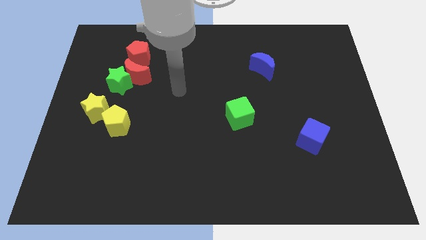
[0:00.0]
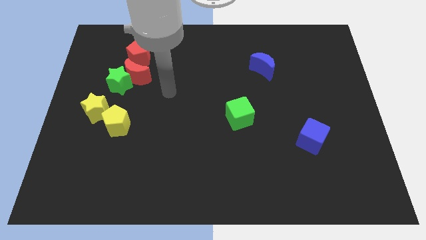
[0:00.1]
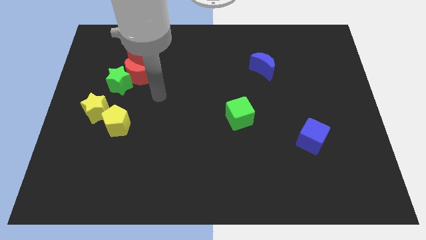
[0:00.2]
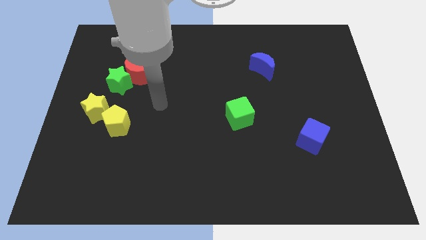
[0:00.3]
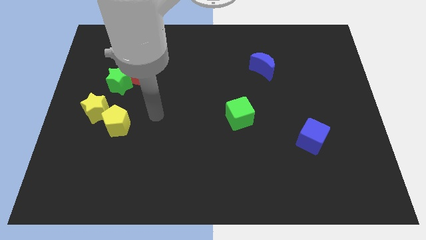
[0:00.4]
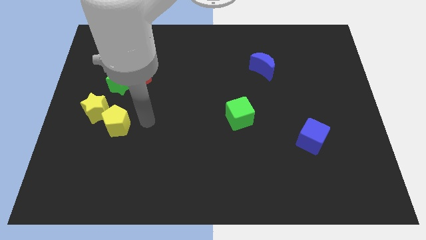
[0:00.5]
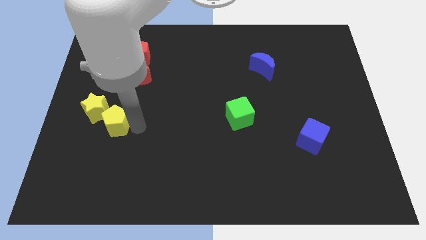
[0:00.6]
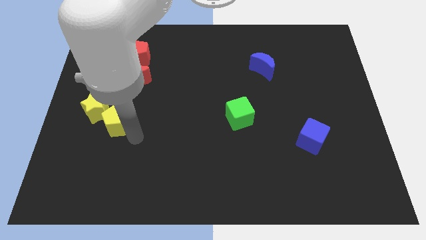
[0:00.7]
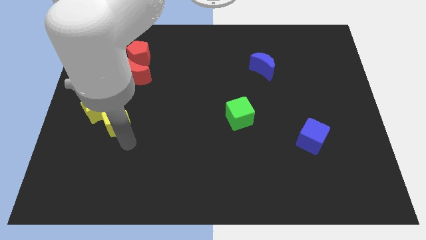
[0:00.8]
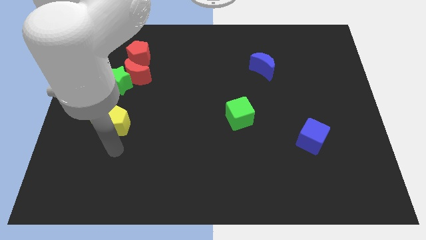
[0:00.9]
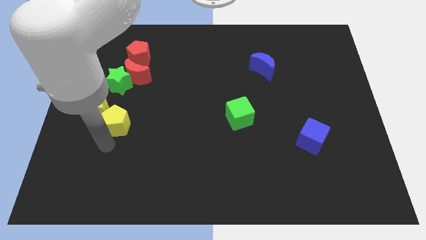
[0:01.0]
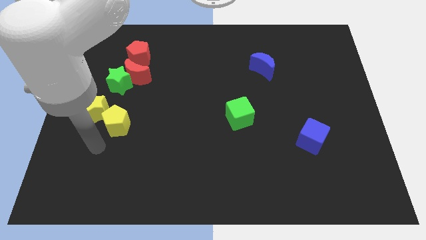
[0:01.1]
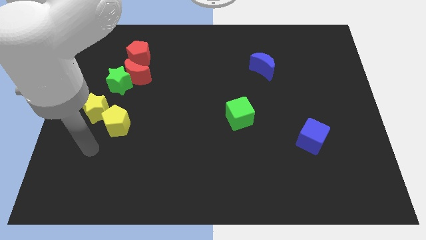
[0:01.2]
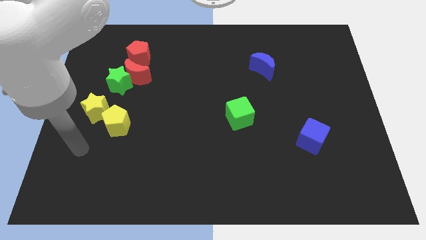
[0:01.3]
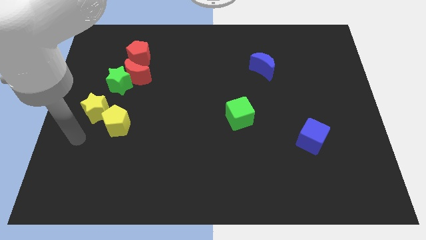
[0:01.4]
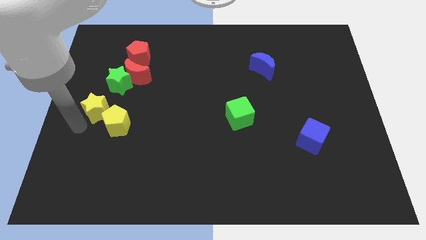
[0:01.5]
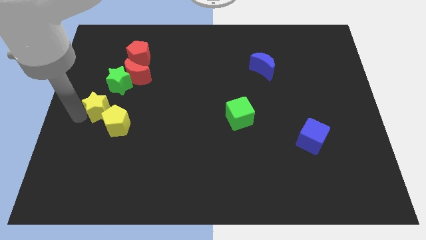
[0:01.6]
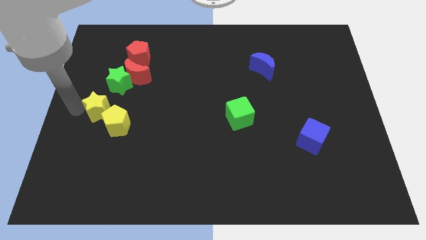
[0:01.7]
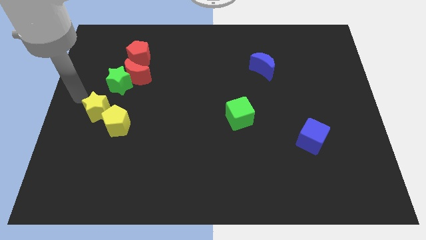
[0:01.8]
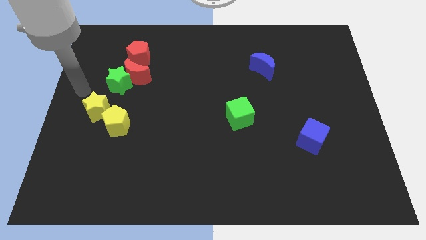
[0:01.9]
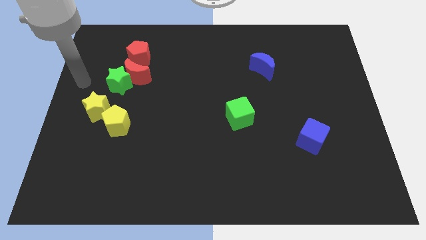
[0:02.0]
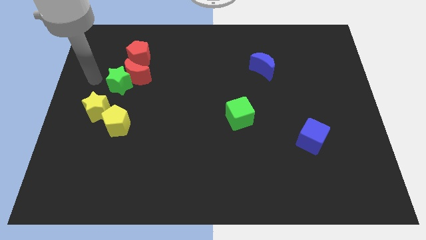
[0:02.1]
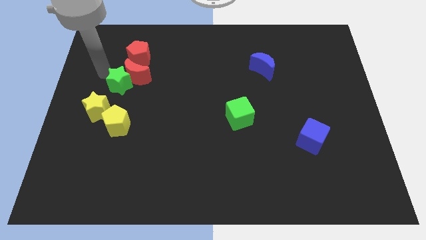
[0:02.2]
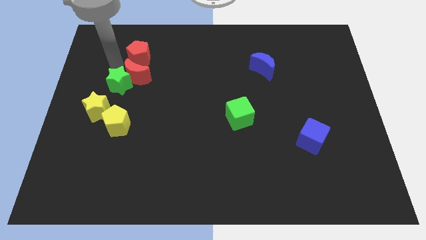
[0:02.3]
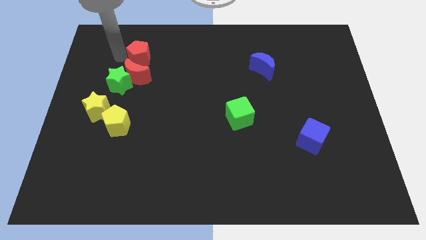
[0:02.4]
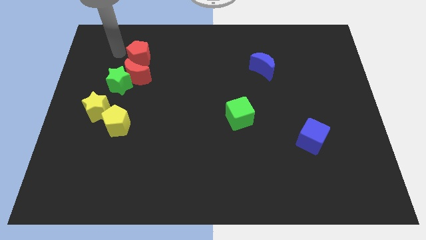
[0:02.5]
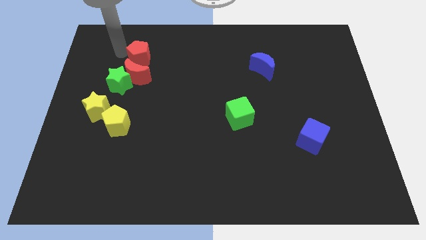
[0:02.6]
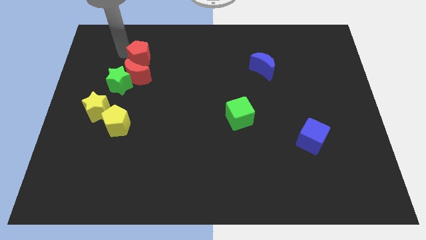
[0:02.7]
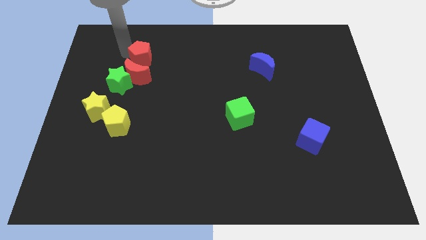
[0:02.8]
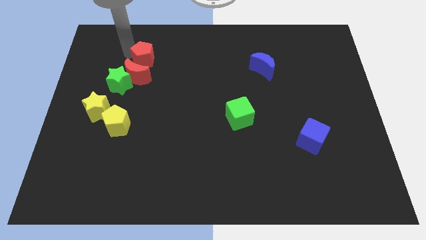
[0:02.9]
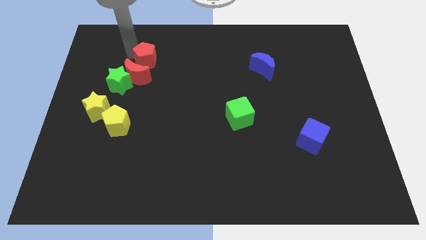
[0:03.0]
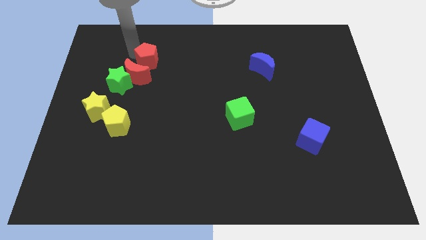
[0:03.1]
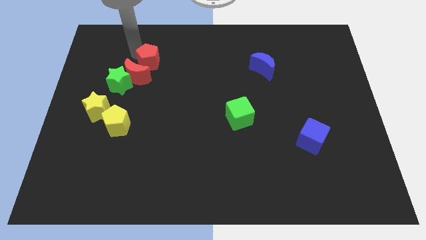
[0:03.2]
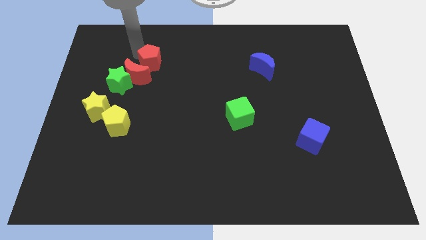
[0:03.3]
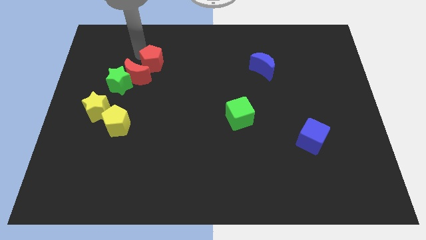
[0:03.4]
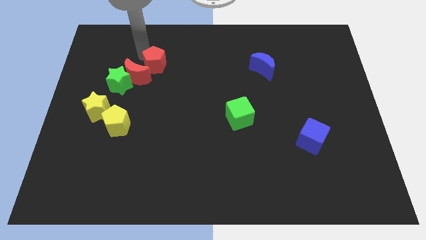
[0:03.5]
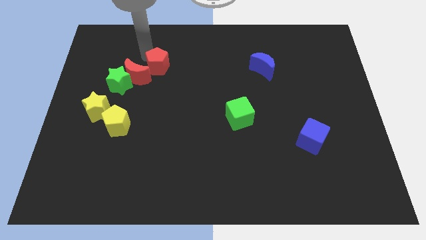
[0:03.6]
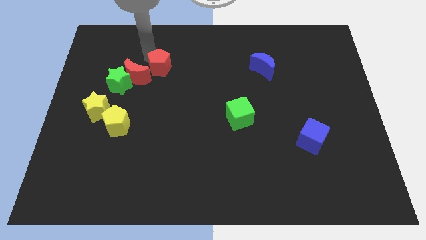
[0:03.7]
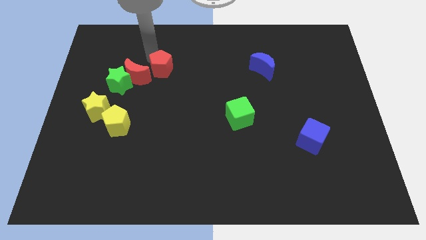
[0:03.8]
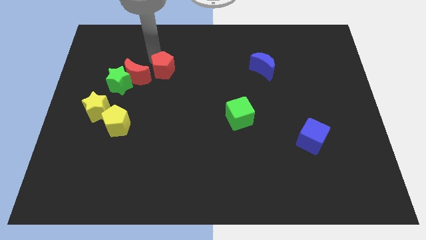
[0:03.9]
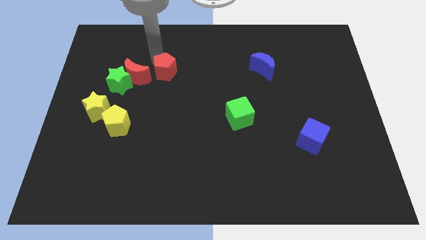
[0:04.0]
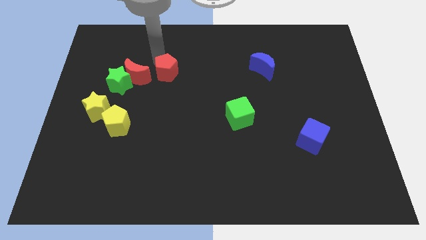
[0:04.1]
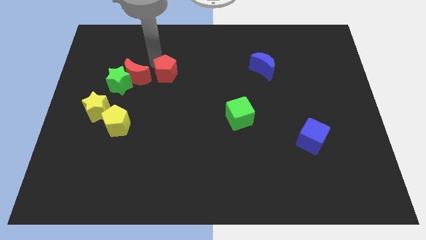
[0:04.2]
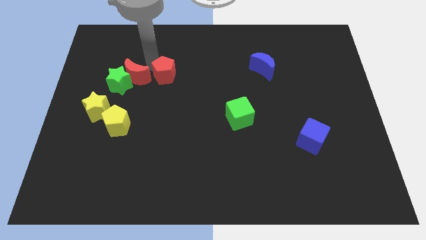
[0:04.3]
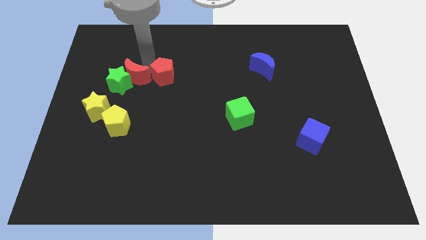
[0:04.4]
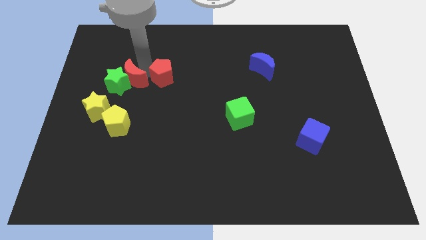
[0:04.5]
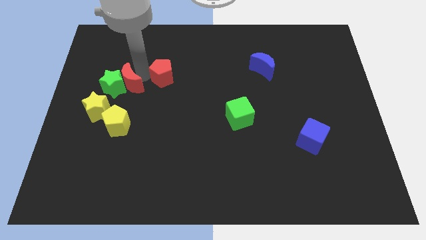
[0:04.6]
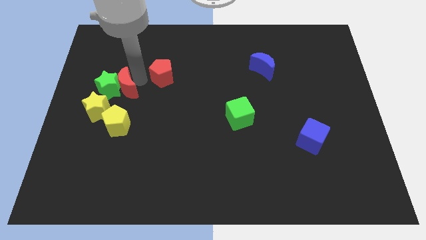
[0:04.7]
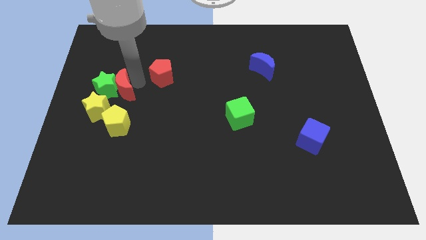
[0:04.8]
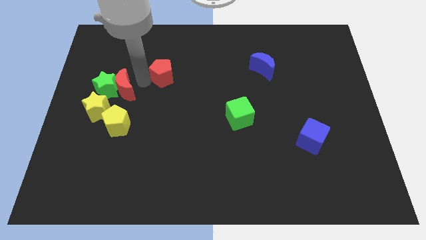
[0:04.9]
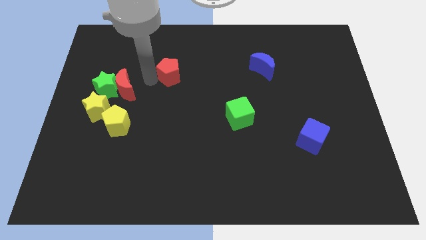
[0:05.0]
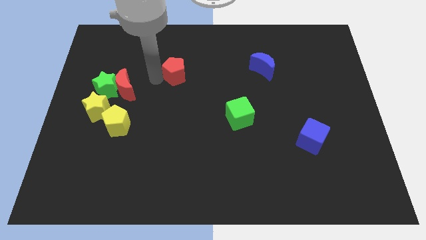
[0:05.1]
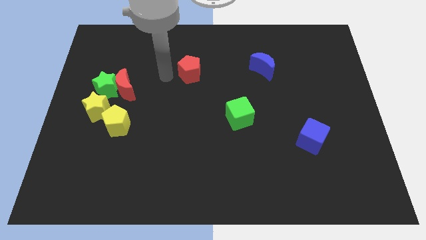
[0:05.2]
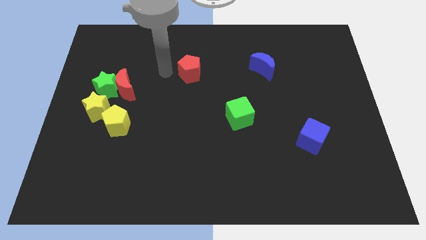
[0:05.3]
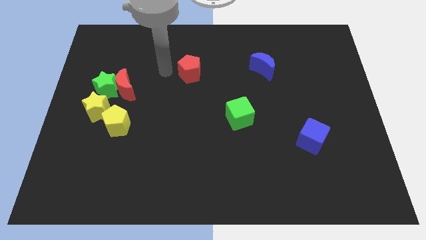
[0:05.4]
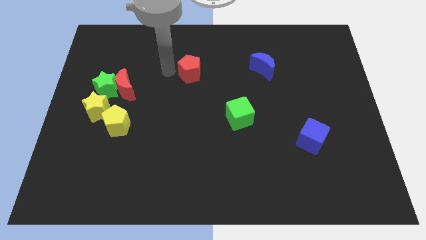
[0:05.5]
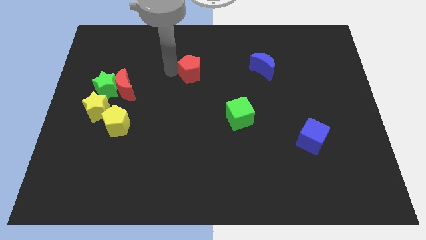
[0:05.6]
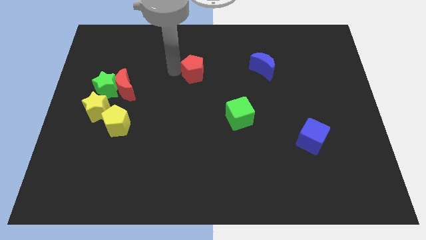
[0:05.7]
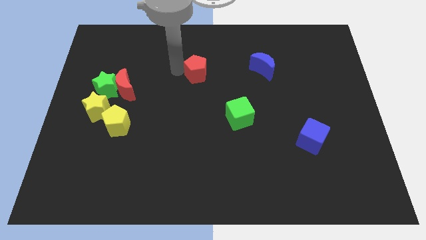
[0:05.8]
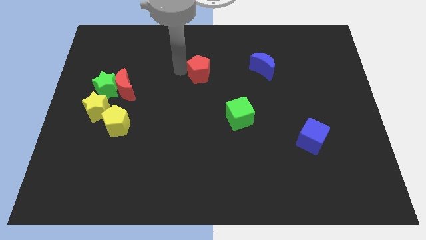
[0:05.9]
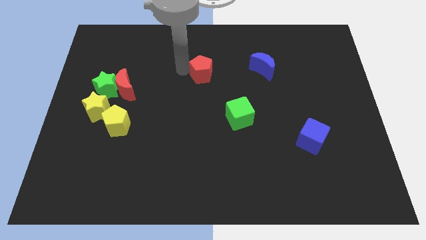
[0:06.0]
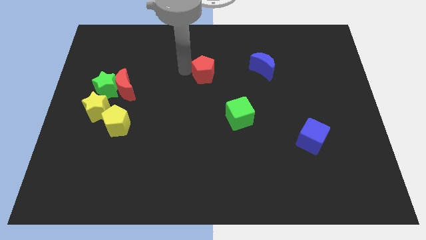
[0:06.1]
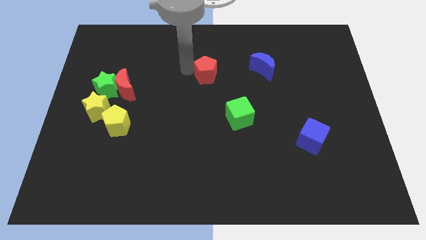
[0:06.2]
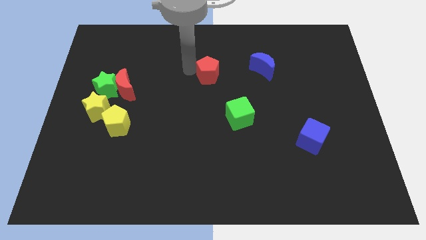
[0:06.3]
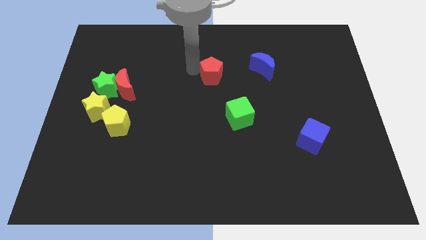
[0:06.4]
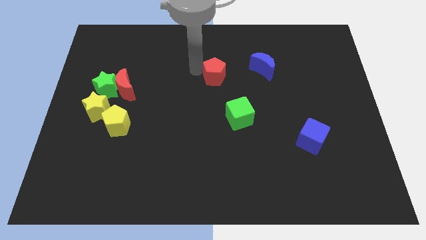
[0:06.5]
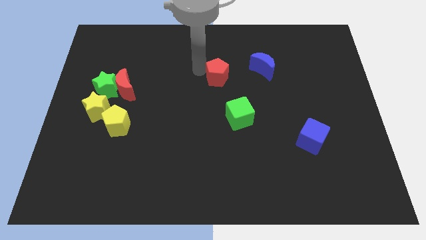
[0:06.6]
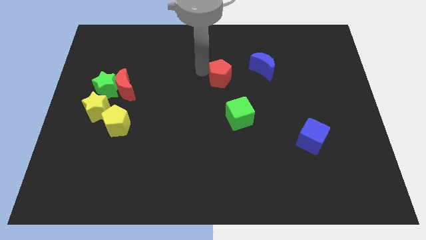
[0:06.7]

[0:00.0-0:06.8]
slide the red pentagon to the top of the green cube
